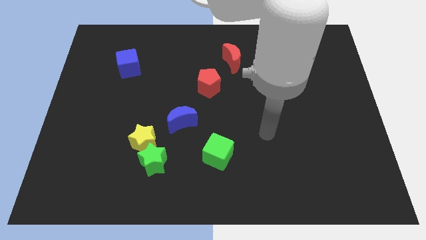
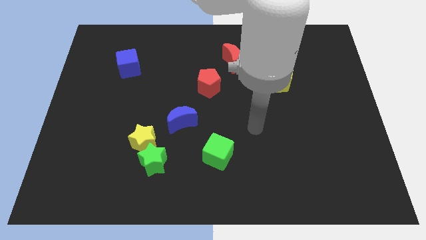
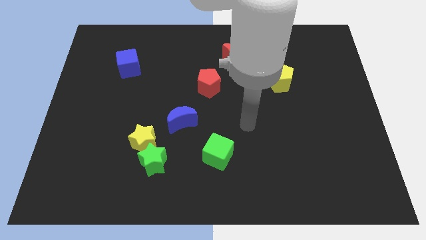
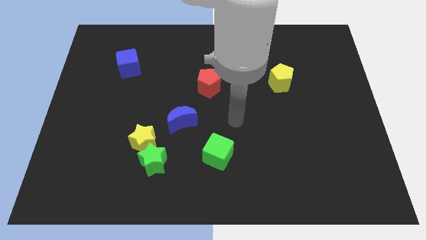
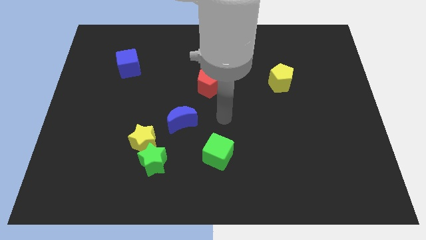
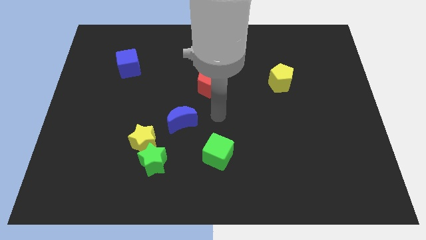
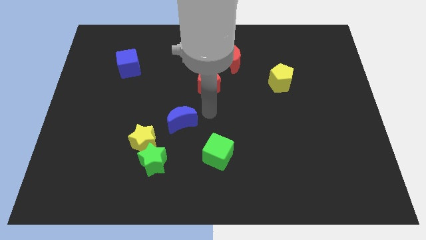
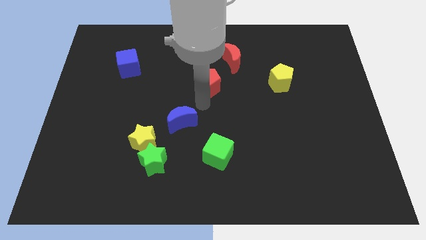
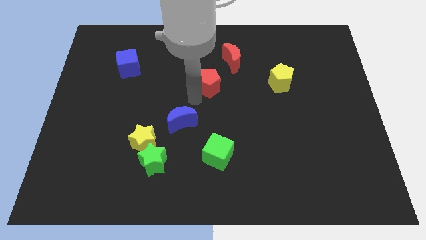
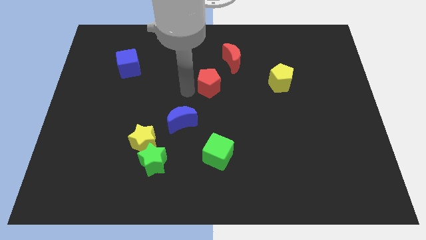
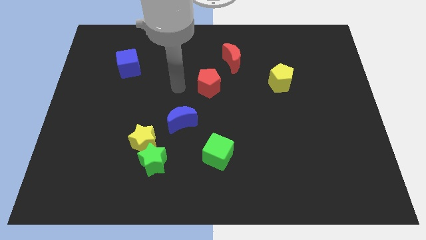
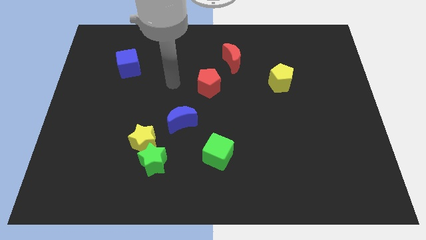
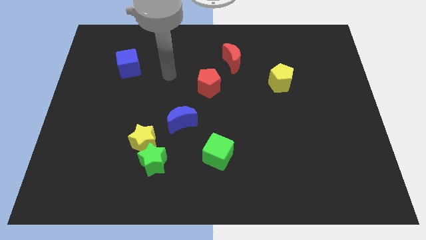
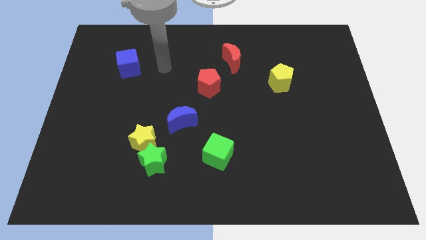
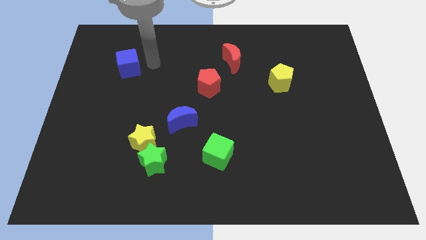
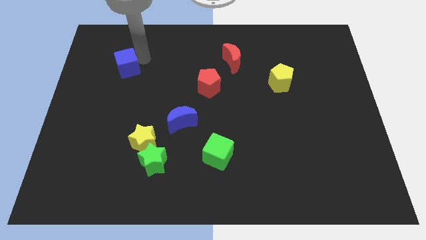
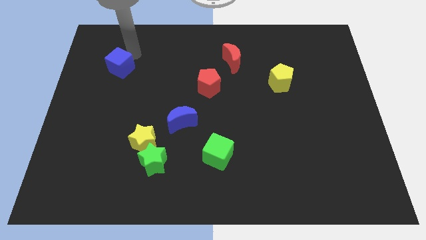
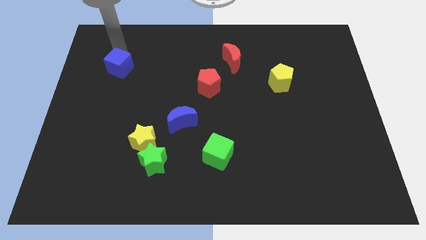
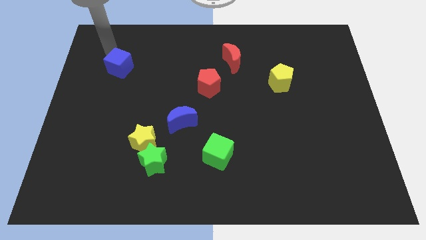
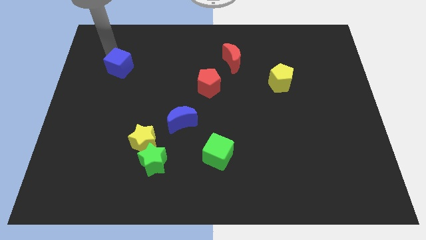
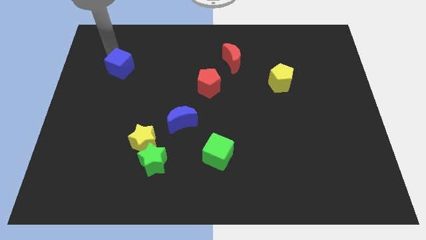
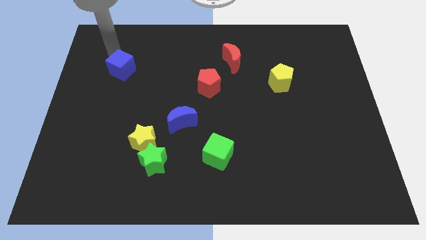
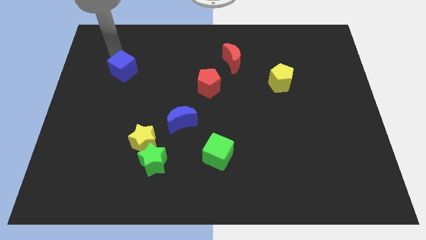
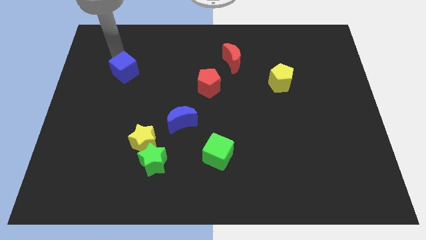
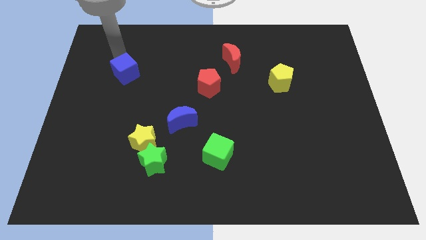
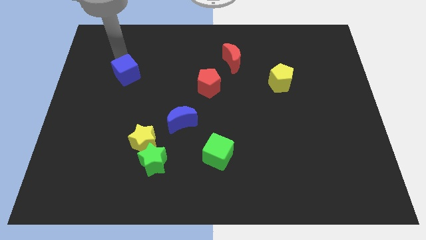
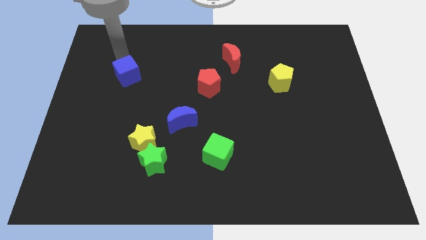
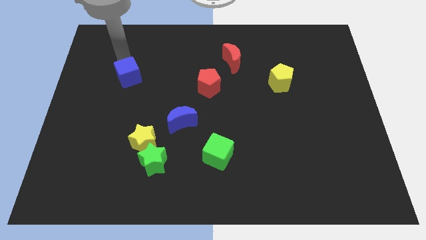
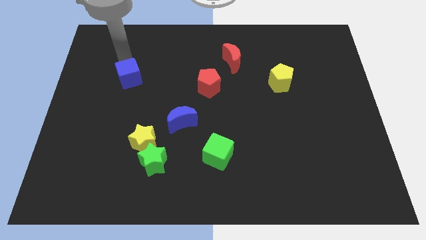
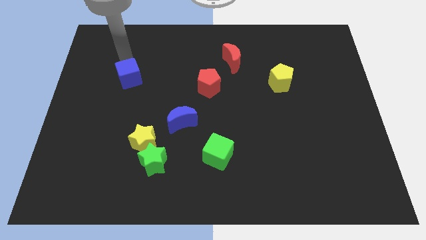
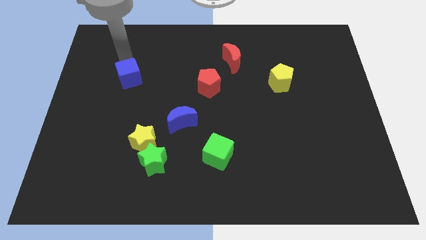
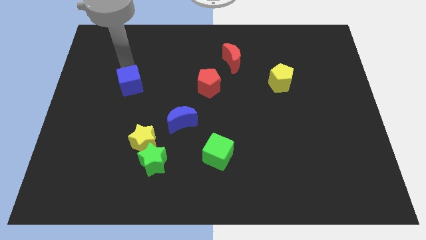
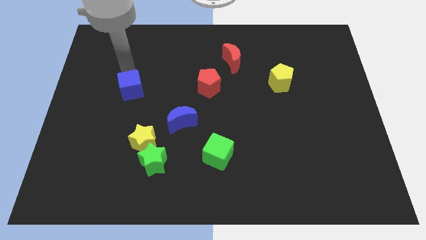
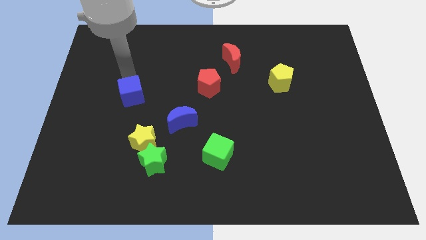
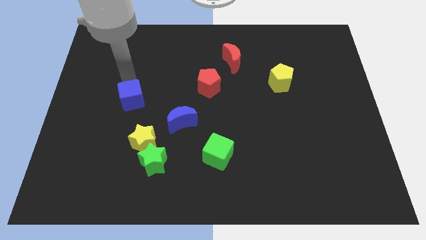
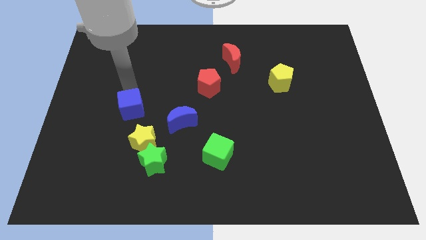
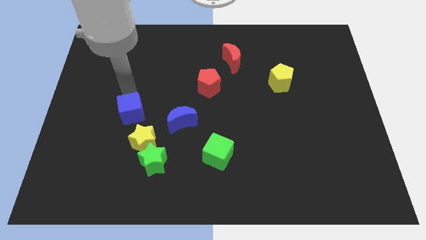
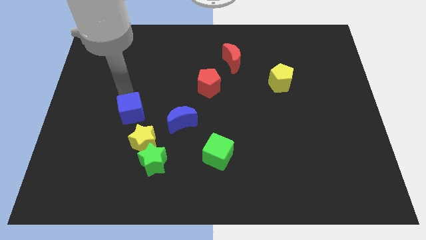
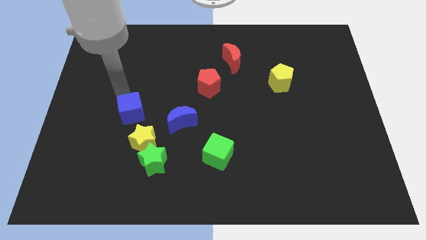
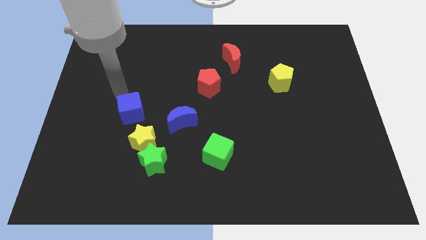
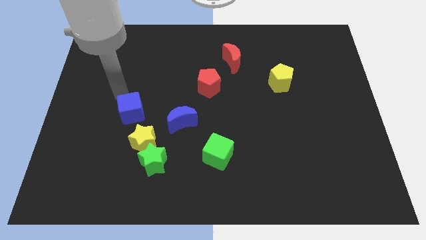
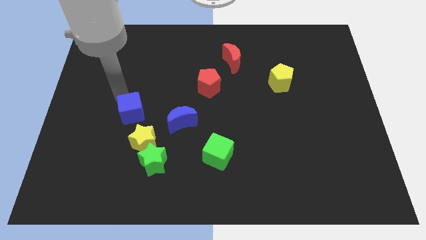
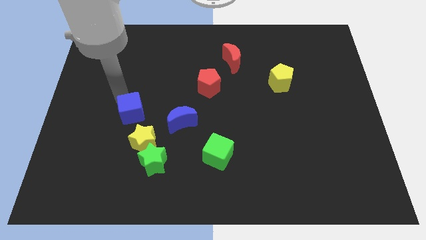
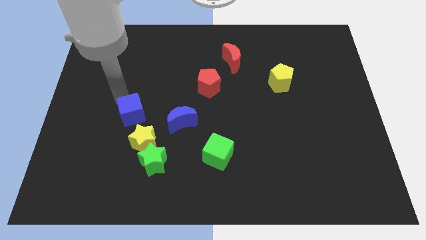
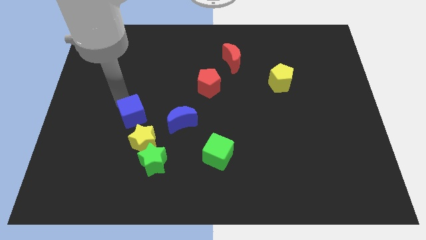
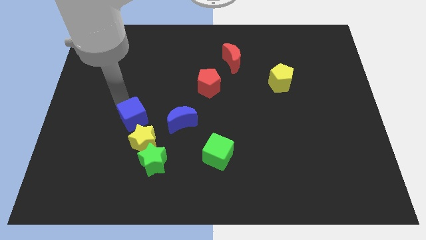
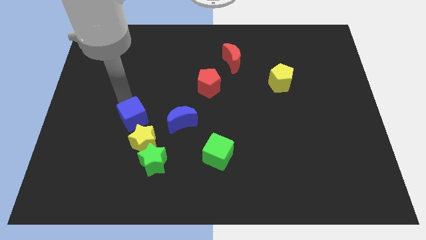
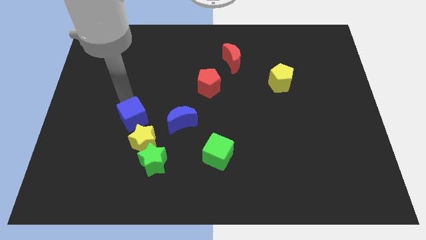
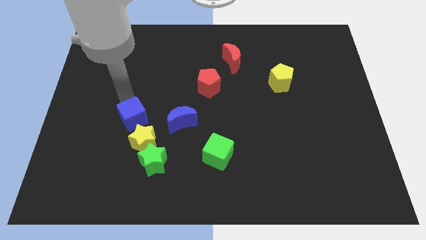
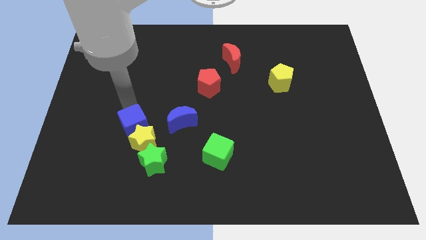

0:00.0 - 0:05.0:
slide the blue cube towards the yellow star

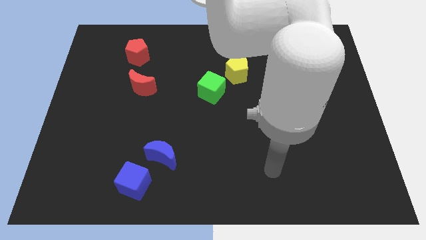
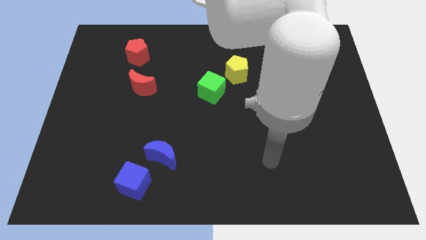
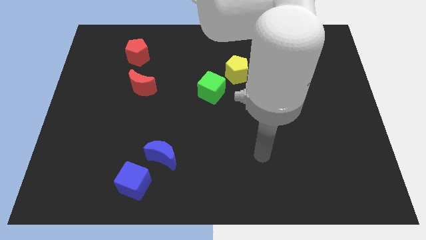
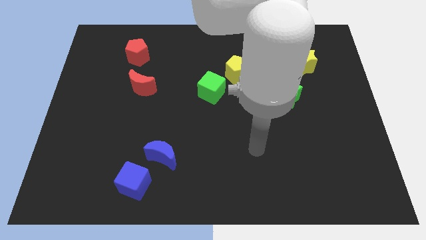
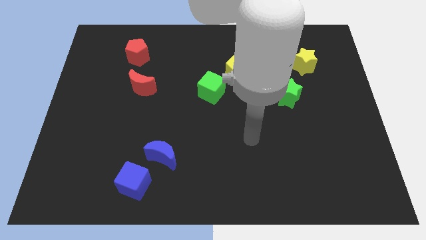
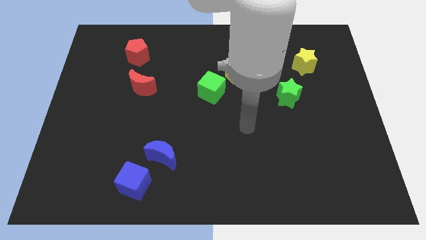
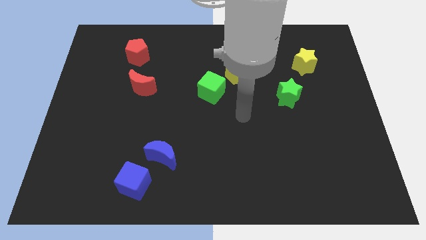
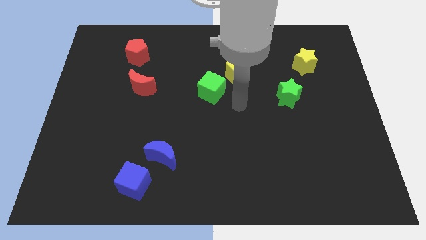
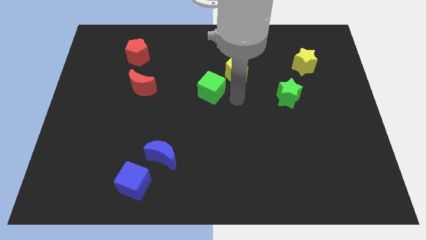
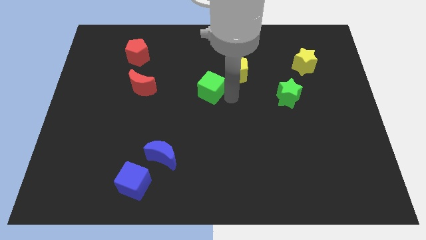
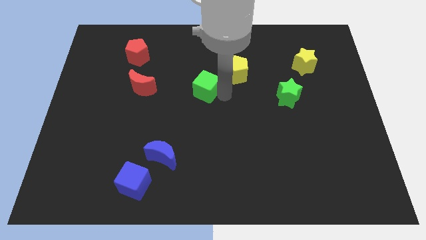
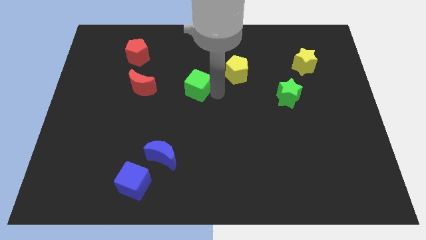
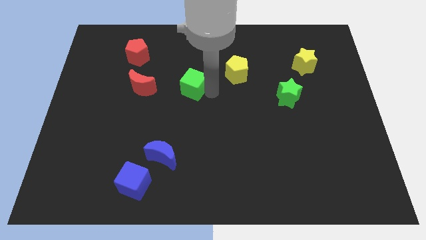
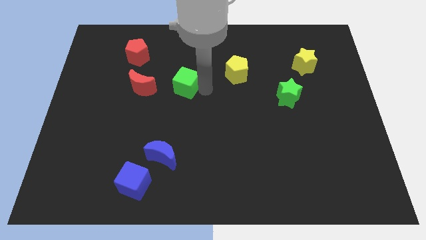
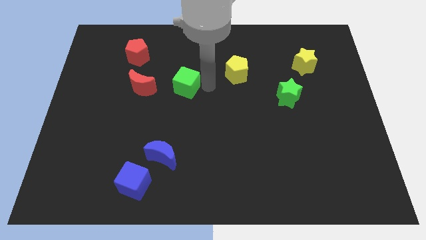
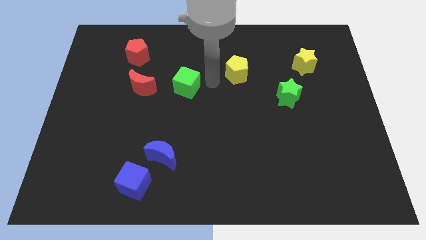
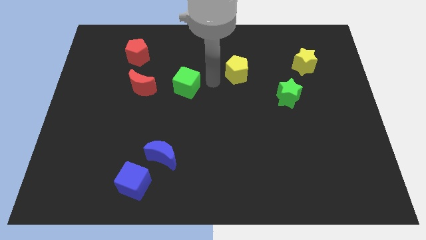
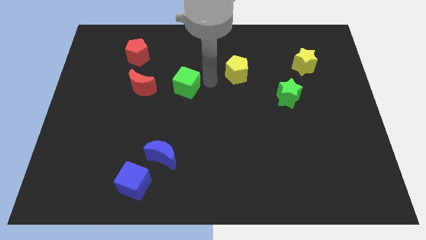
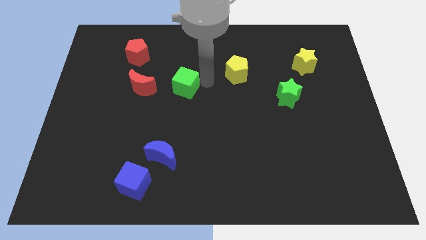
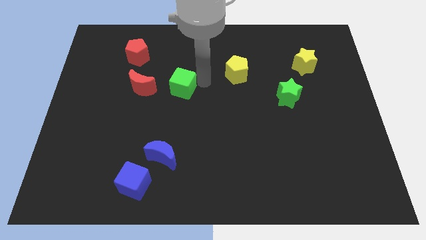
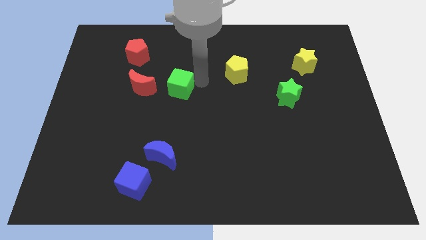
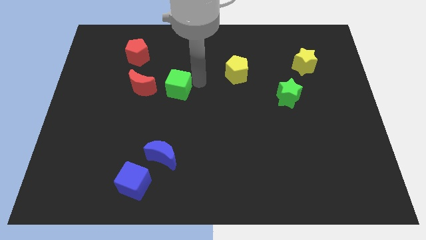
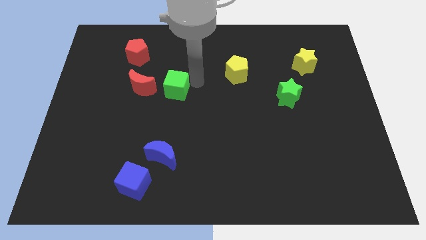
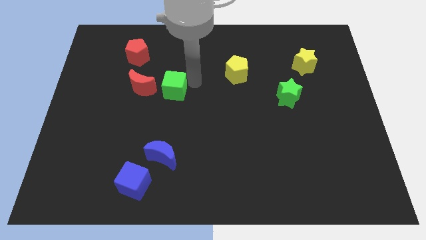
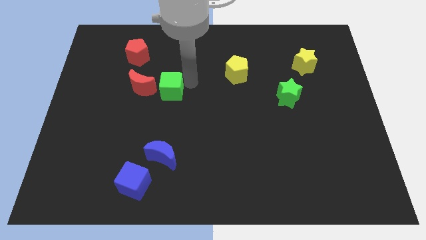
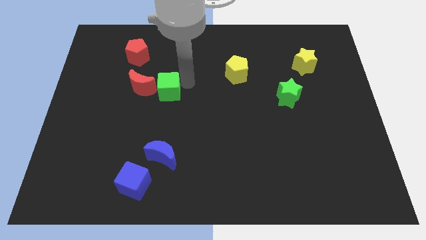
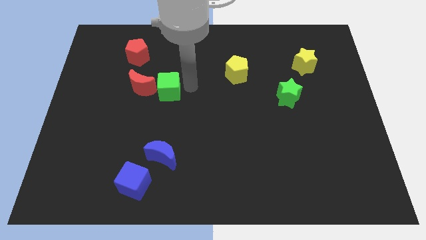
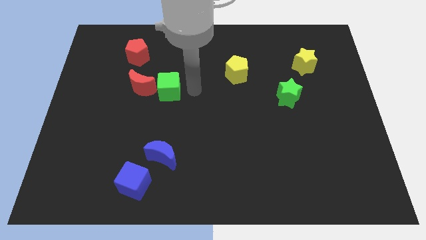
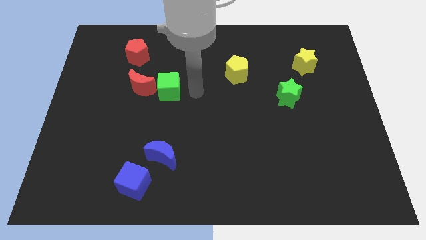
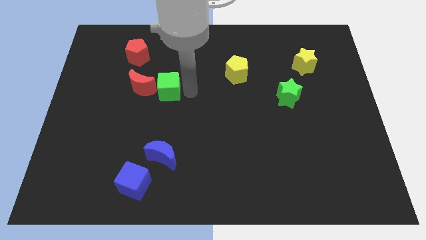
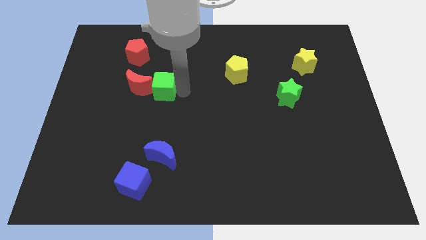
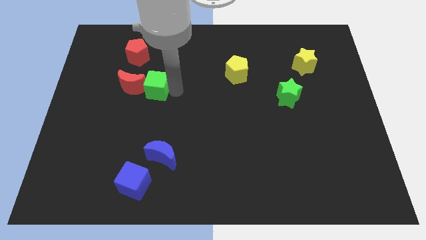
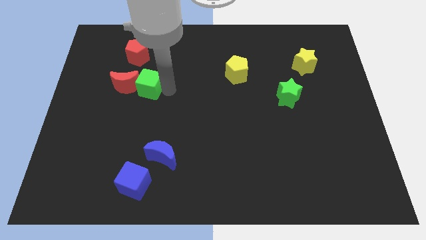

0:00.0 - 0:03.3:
push the green cube close to the red moon
